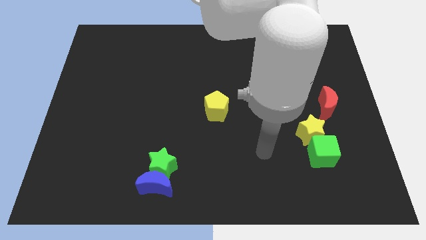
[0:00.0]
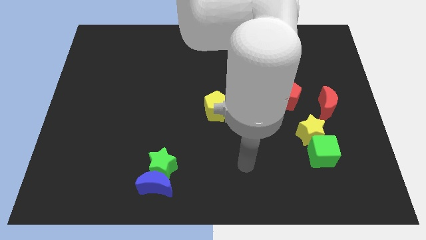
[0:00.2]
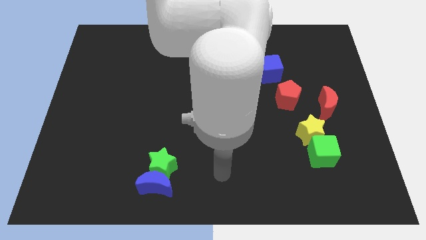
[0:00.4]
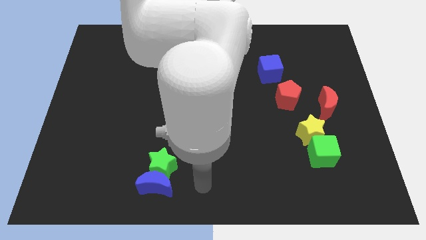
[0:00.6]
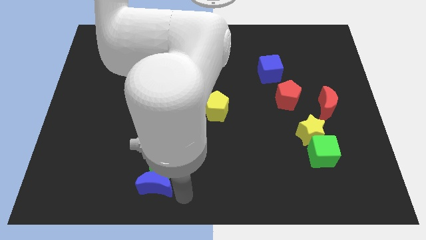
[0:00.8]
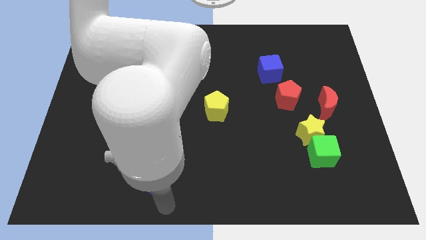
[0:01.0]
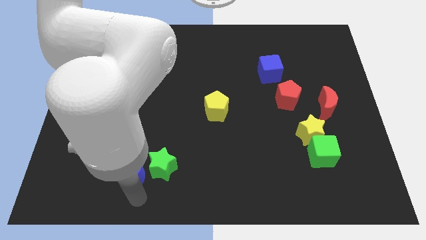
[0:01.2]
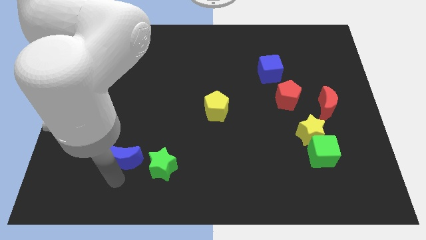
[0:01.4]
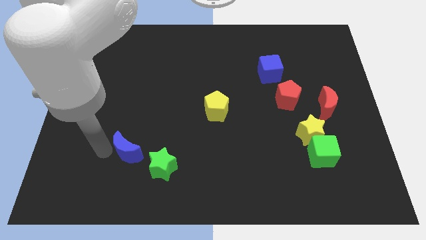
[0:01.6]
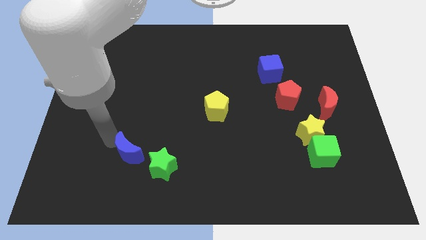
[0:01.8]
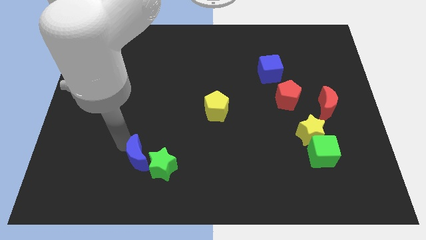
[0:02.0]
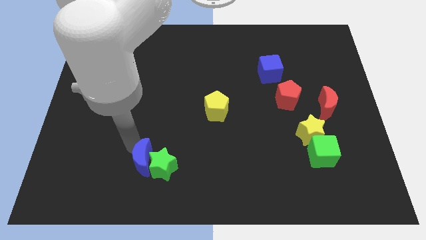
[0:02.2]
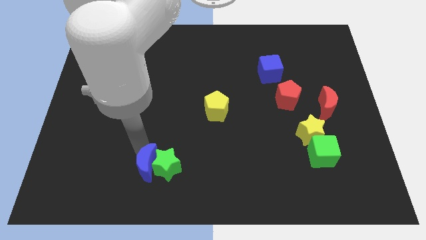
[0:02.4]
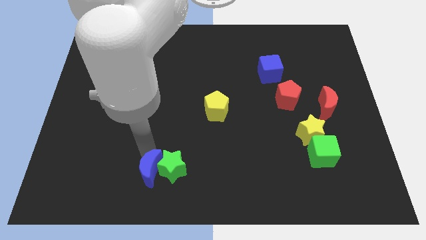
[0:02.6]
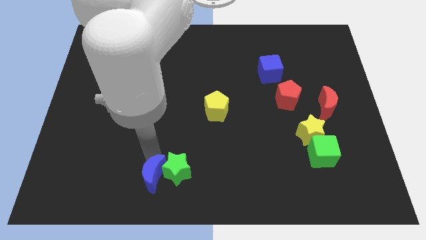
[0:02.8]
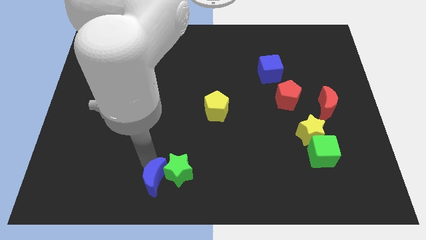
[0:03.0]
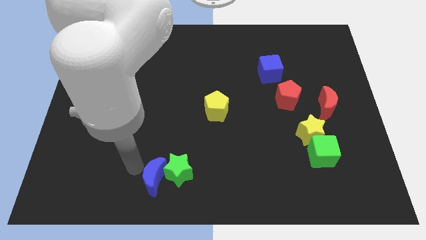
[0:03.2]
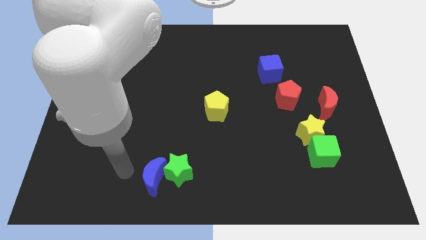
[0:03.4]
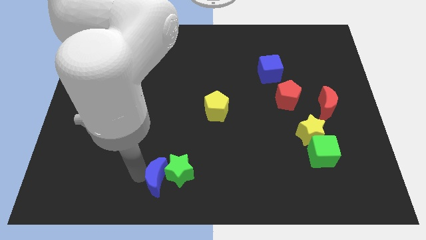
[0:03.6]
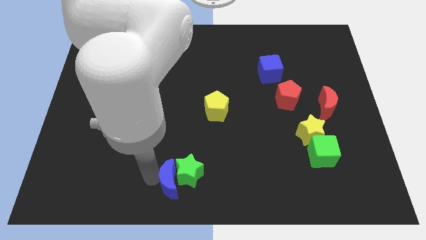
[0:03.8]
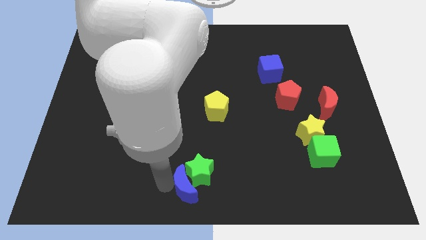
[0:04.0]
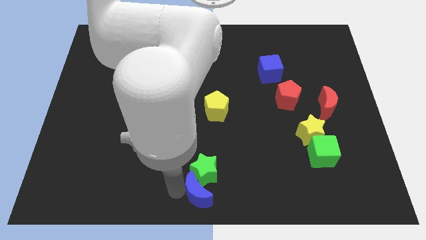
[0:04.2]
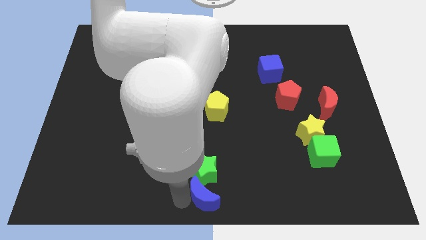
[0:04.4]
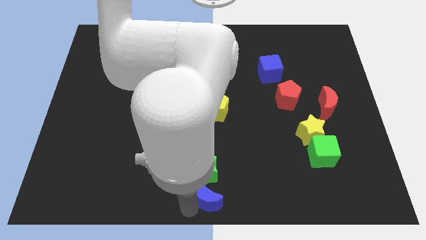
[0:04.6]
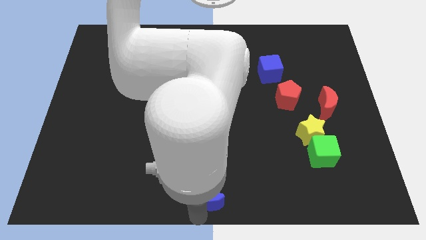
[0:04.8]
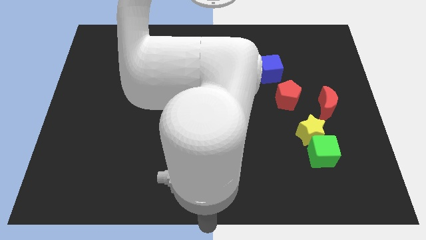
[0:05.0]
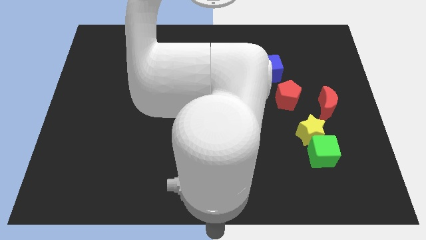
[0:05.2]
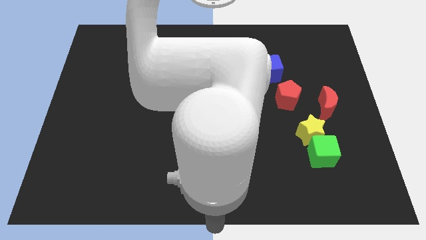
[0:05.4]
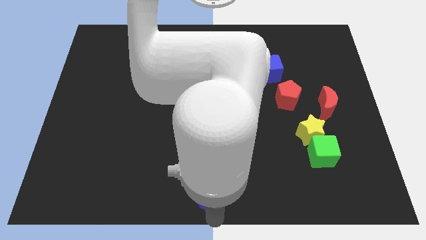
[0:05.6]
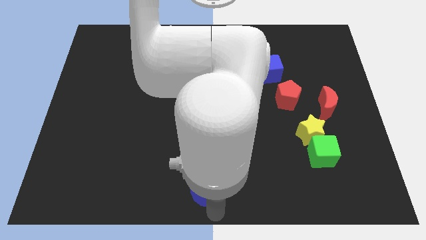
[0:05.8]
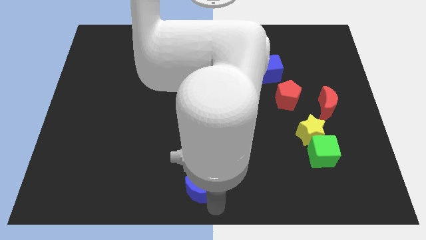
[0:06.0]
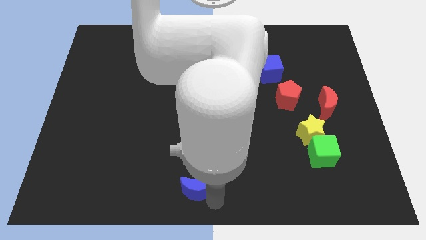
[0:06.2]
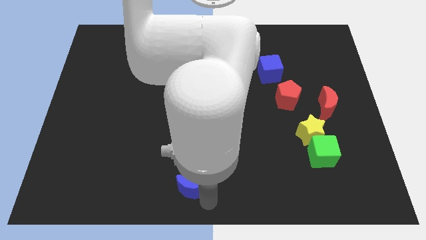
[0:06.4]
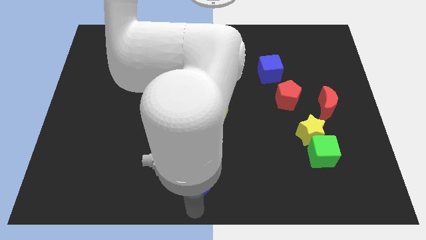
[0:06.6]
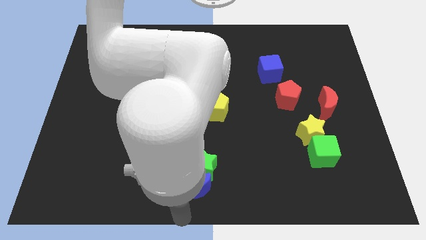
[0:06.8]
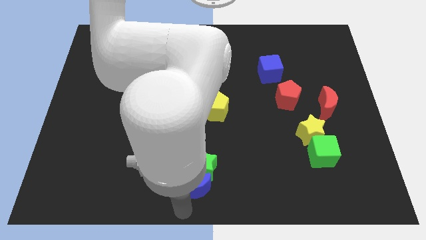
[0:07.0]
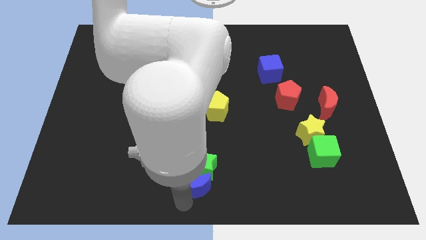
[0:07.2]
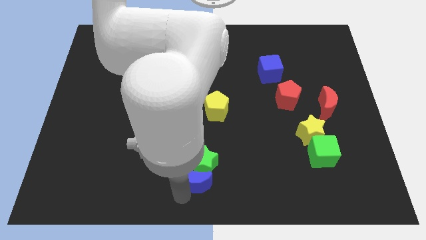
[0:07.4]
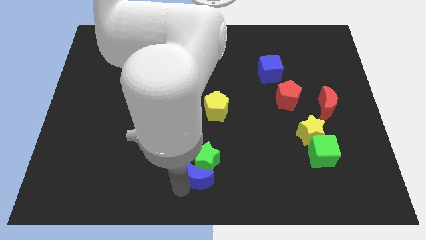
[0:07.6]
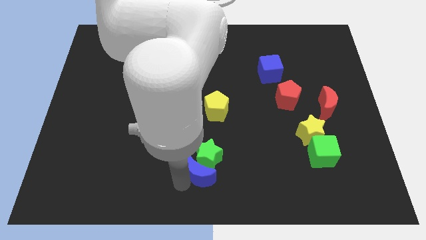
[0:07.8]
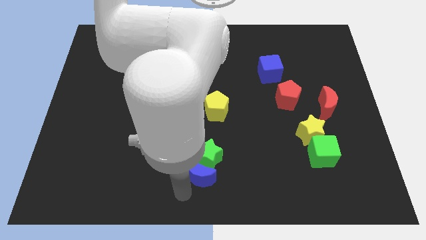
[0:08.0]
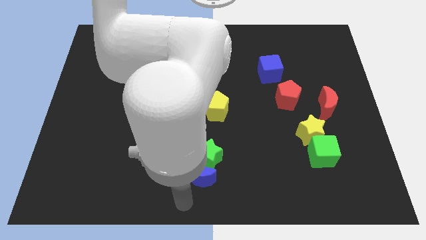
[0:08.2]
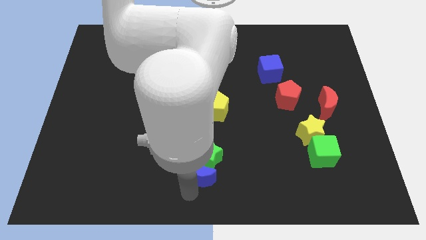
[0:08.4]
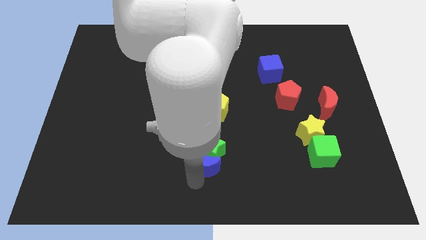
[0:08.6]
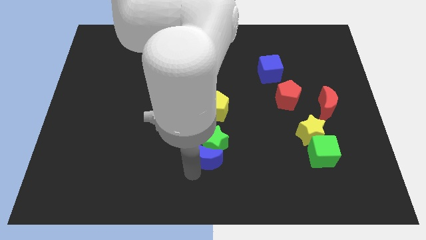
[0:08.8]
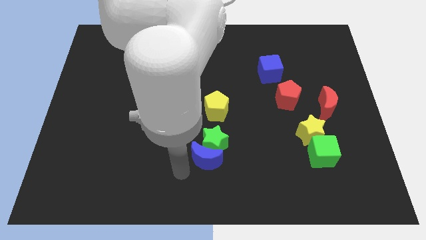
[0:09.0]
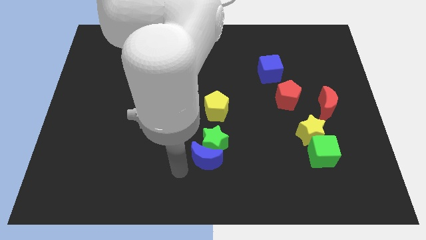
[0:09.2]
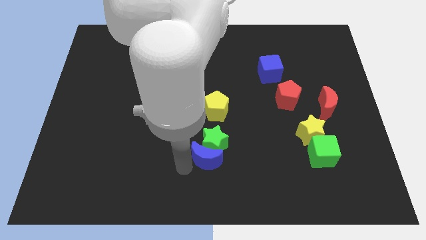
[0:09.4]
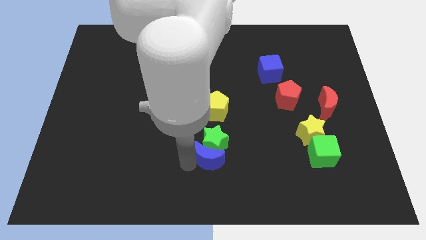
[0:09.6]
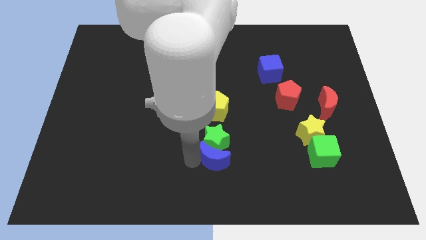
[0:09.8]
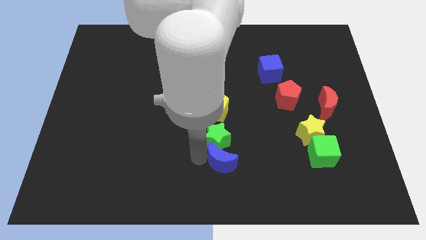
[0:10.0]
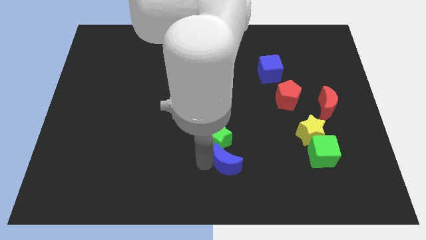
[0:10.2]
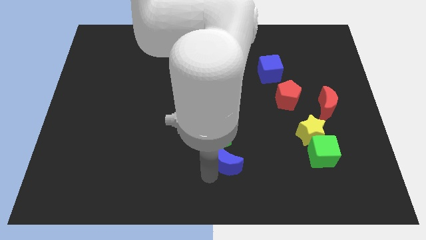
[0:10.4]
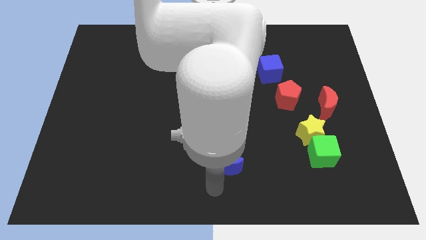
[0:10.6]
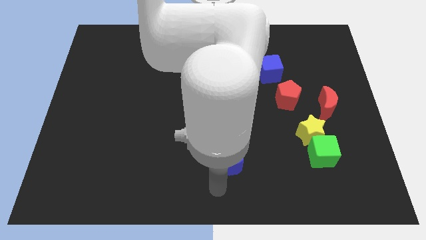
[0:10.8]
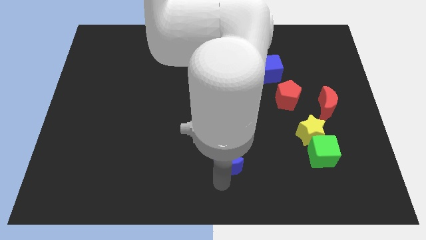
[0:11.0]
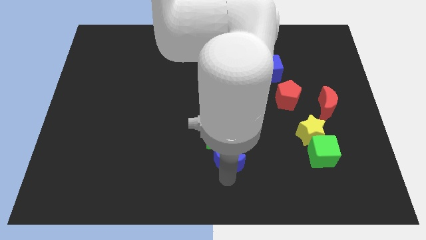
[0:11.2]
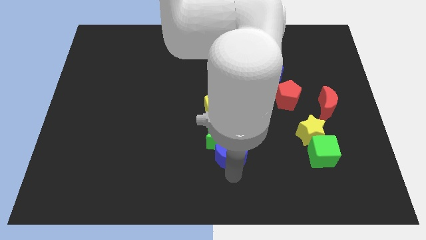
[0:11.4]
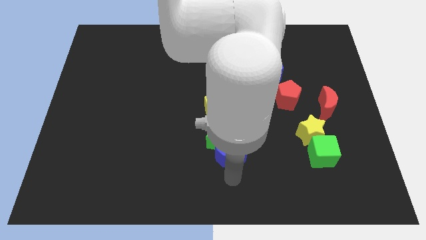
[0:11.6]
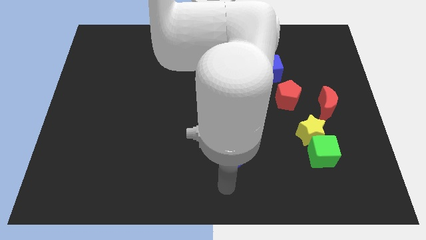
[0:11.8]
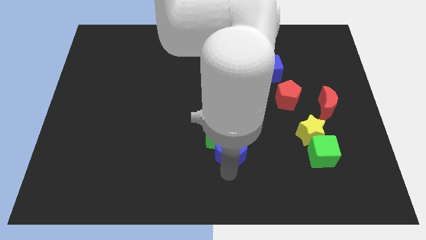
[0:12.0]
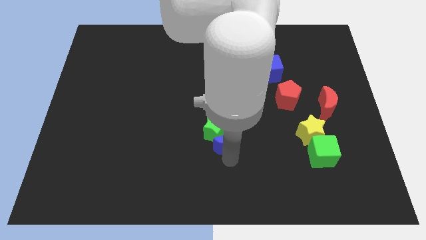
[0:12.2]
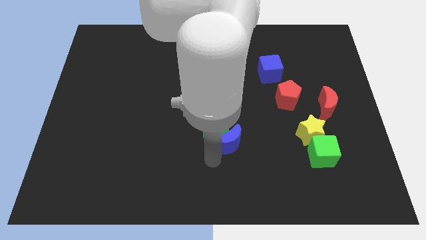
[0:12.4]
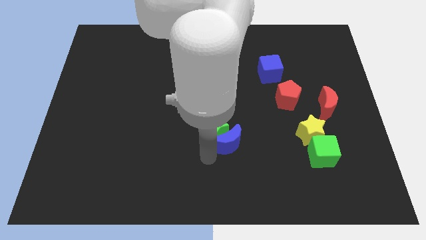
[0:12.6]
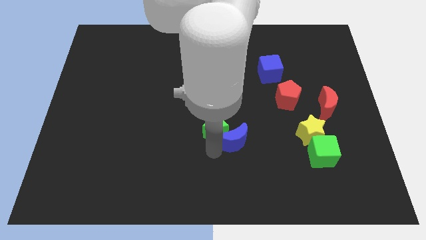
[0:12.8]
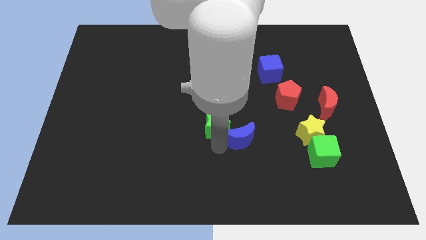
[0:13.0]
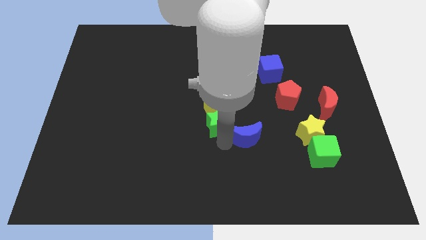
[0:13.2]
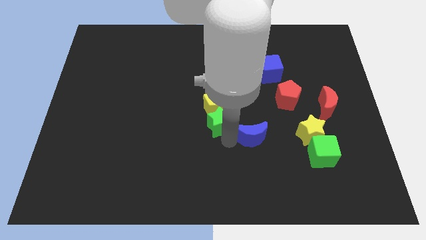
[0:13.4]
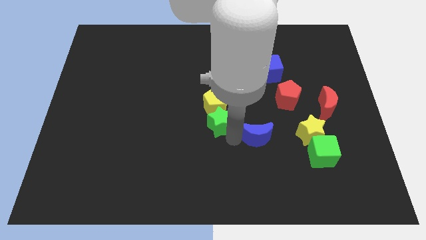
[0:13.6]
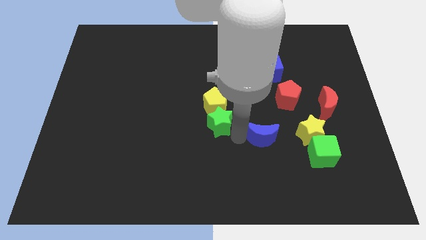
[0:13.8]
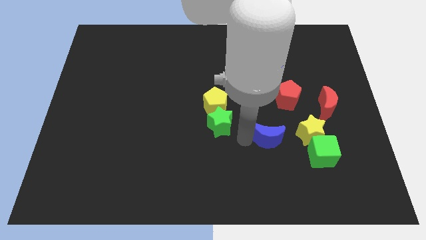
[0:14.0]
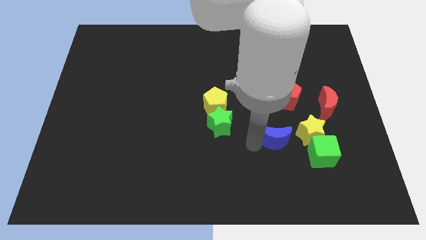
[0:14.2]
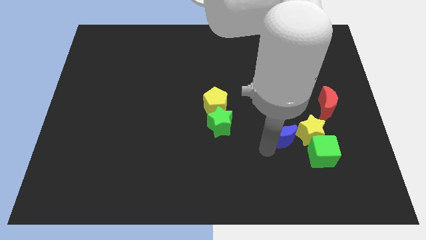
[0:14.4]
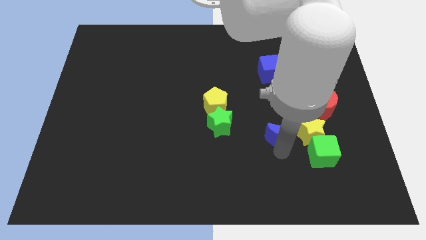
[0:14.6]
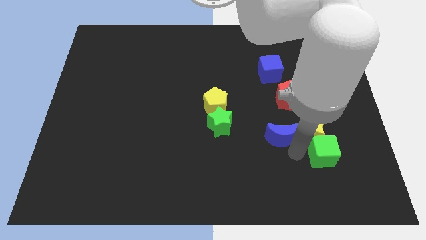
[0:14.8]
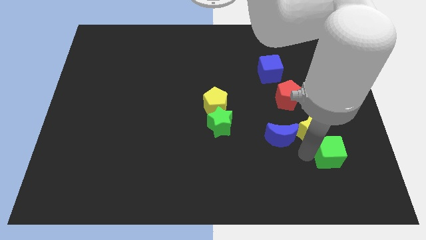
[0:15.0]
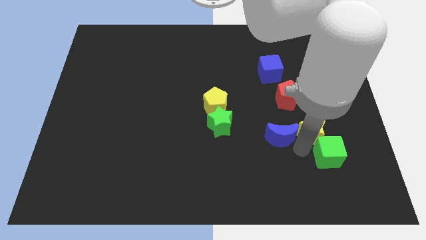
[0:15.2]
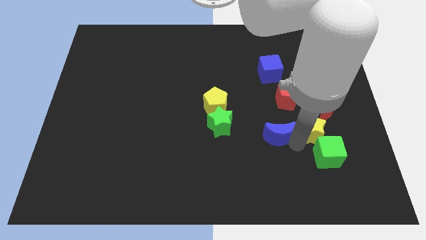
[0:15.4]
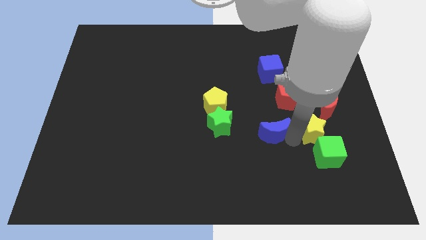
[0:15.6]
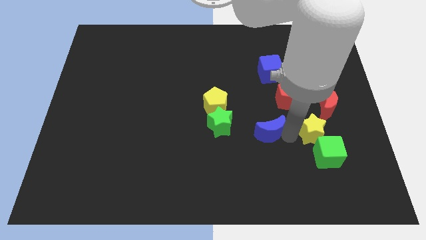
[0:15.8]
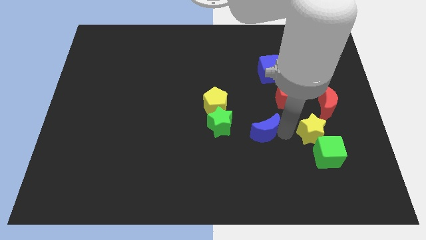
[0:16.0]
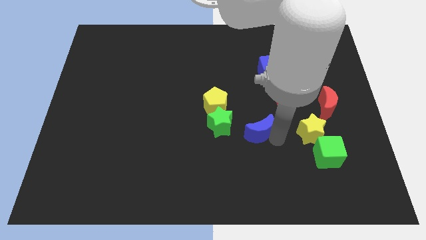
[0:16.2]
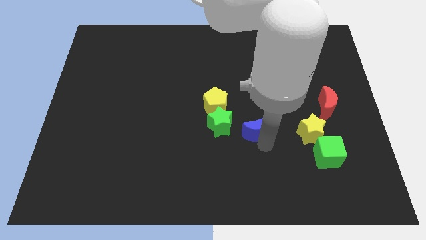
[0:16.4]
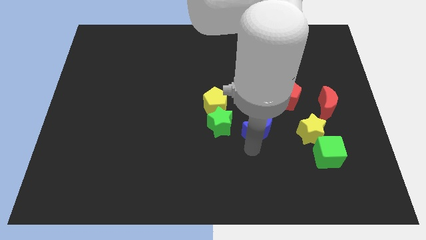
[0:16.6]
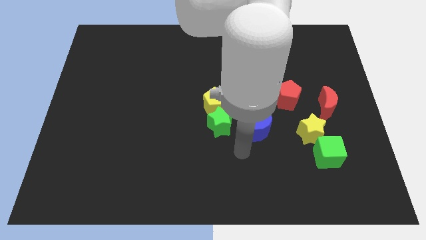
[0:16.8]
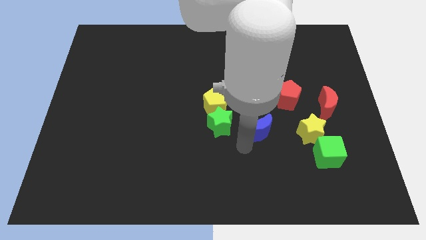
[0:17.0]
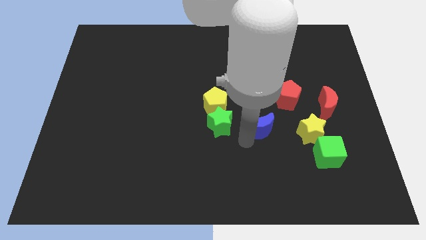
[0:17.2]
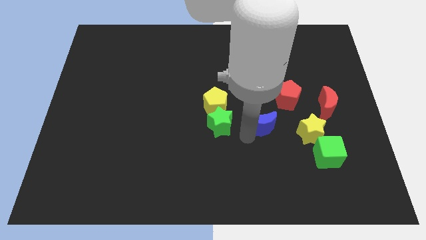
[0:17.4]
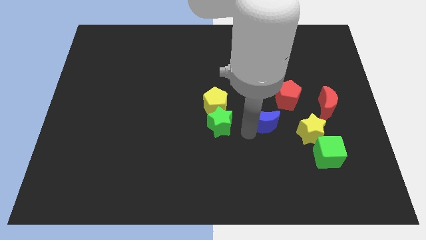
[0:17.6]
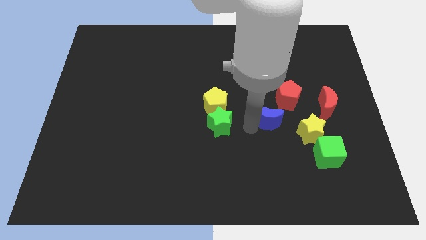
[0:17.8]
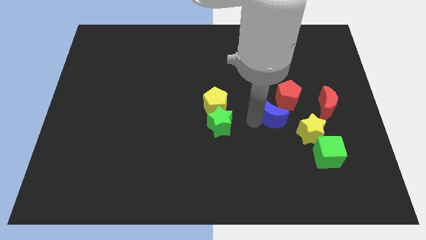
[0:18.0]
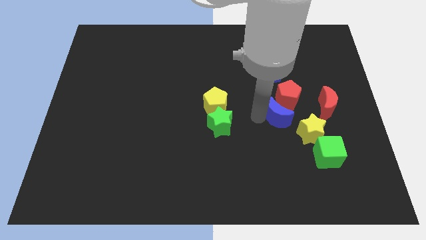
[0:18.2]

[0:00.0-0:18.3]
put the blue moon close to the red pentagon
